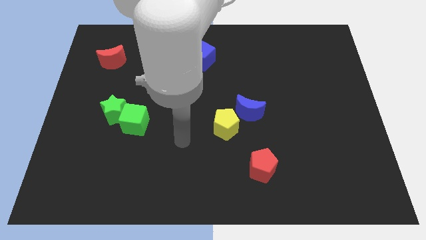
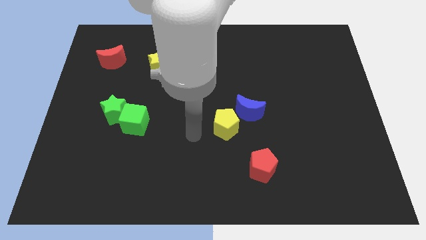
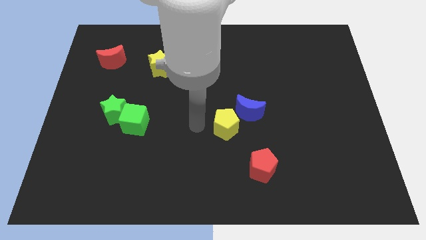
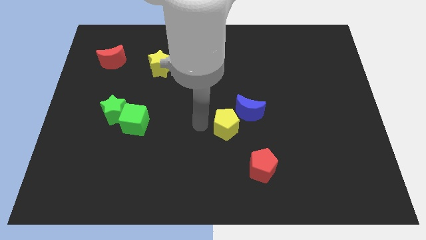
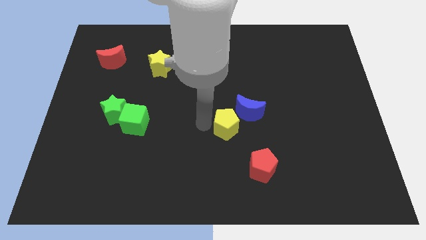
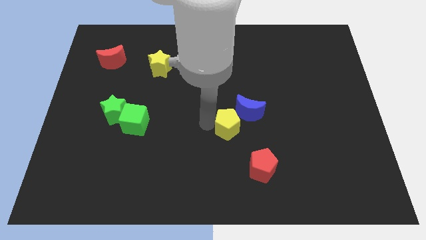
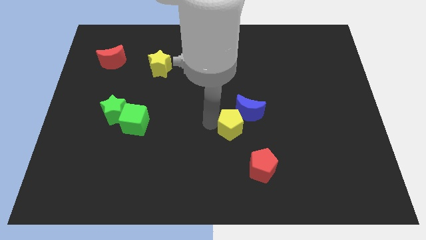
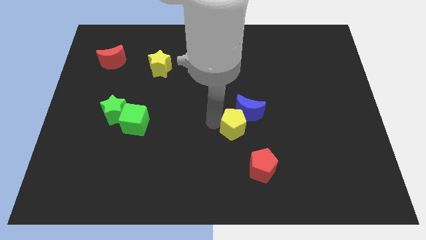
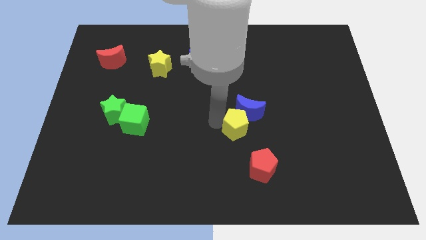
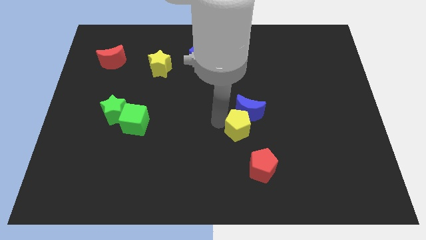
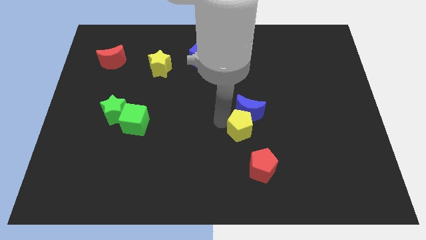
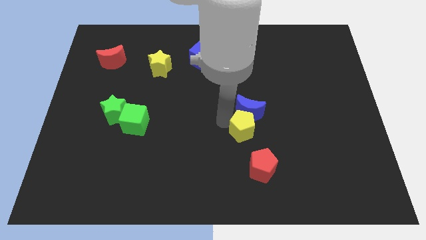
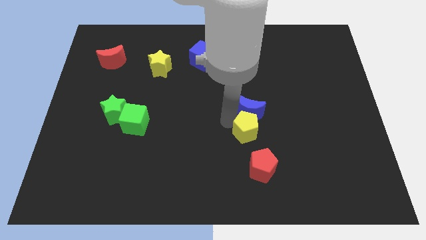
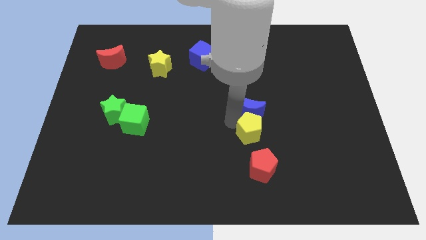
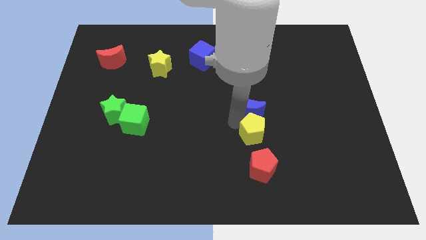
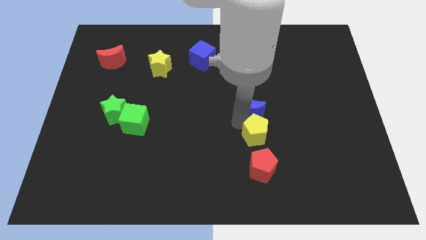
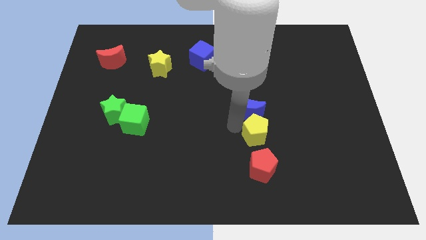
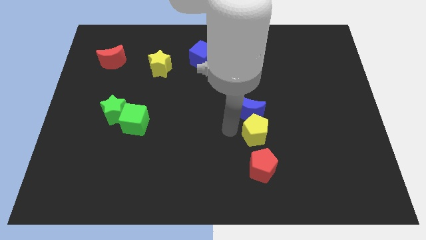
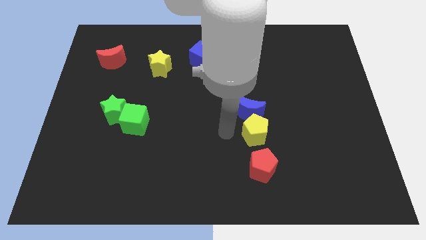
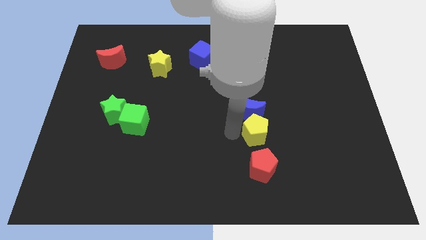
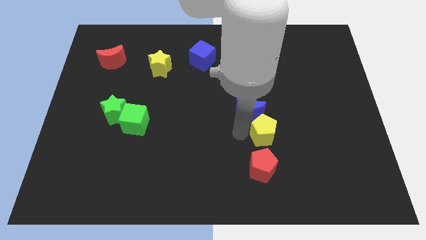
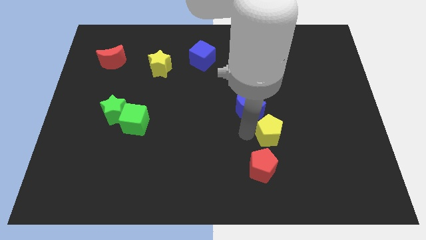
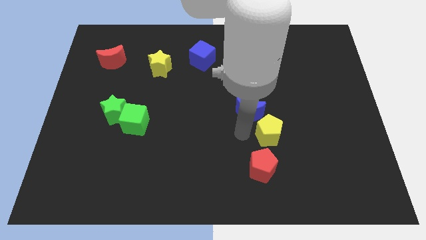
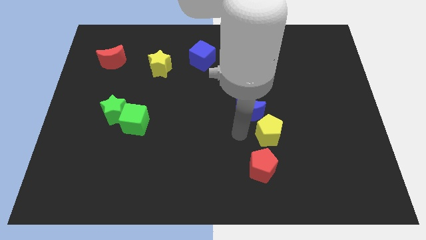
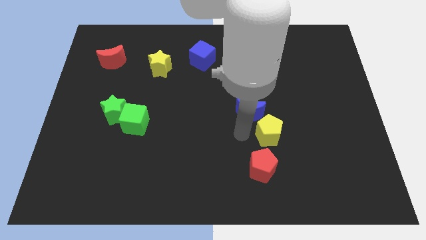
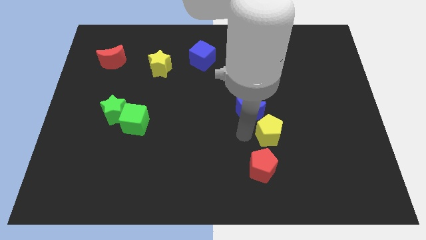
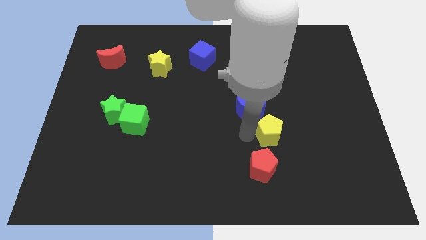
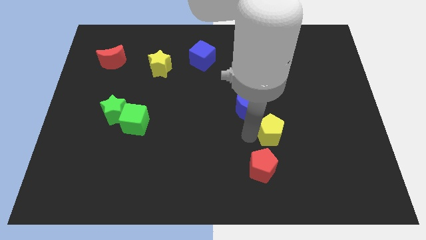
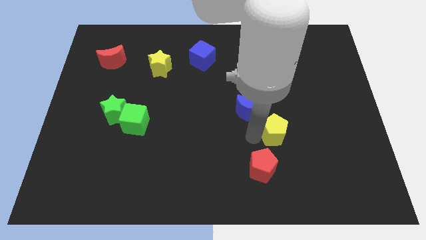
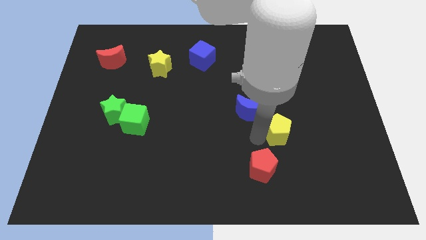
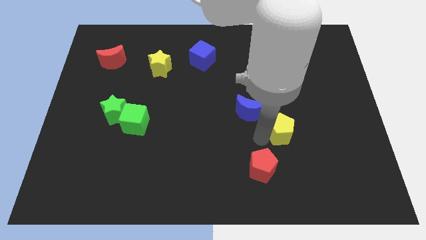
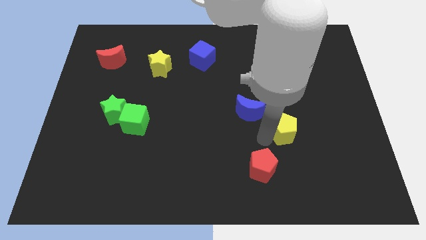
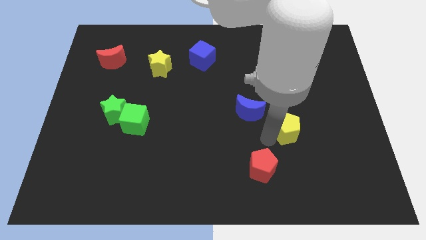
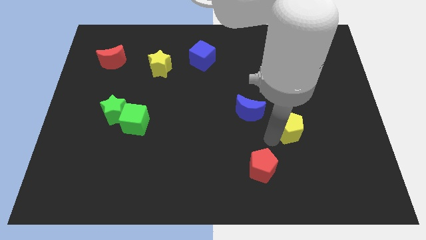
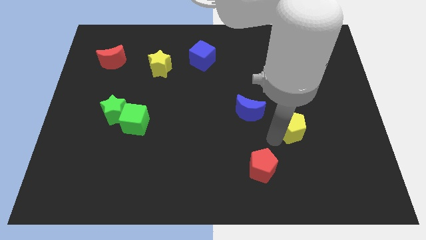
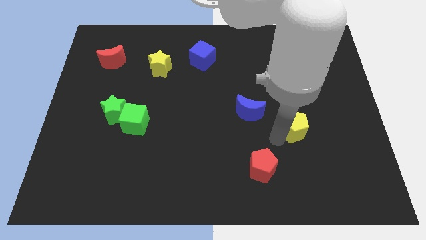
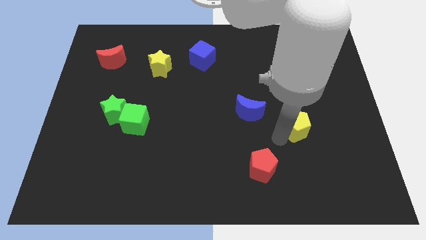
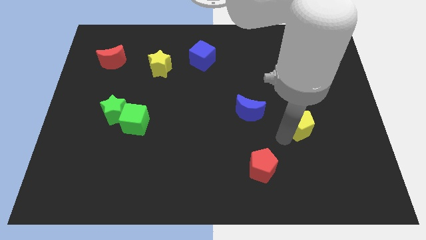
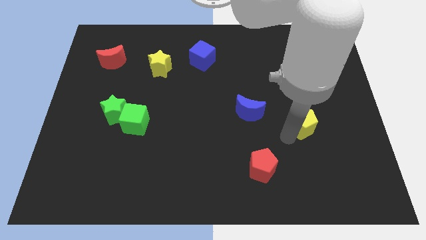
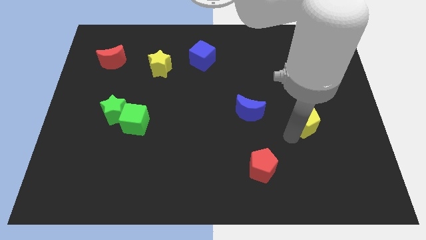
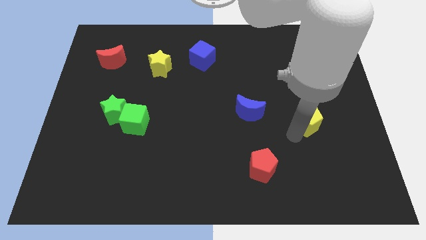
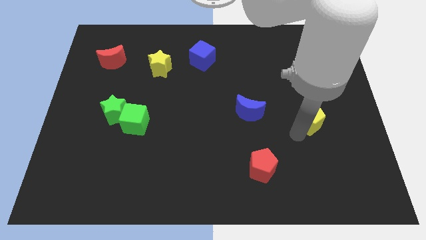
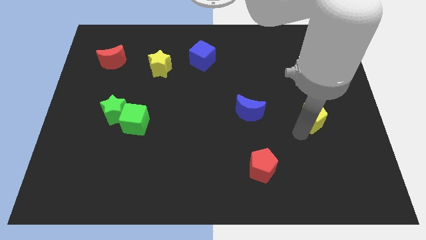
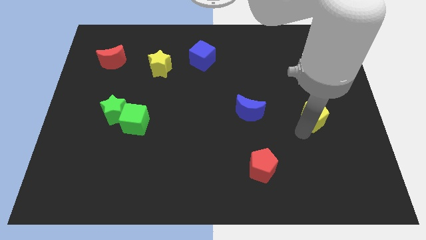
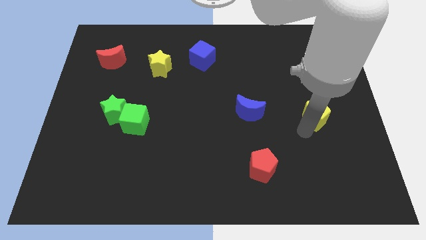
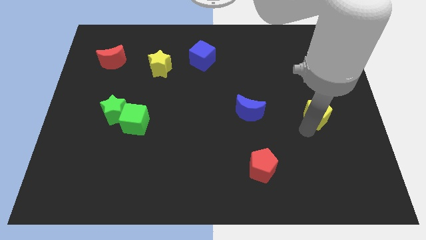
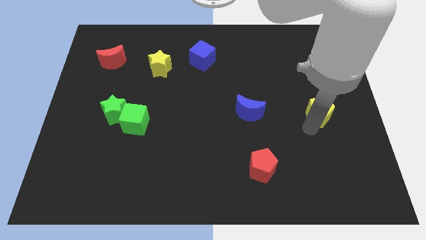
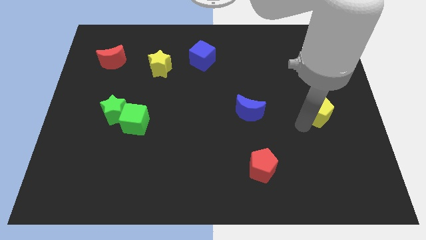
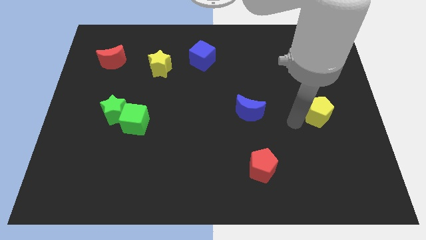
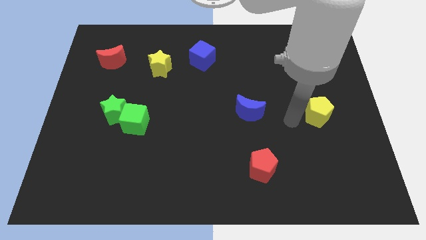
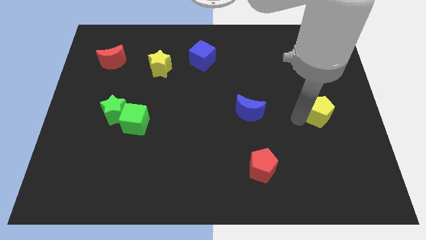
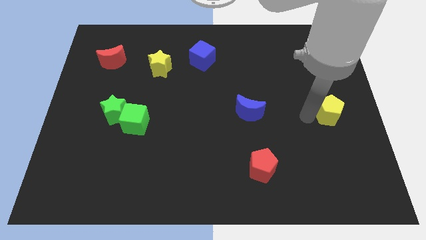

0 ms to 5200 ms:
slide the yellow pentagon to the right side

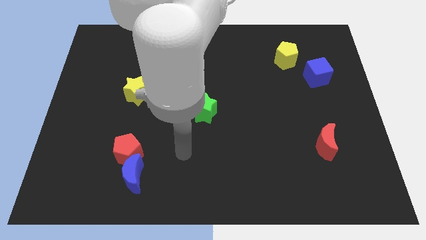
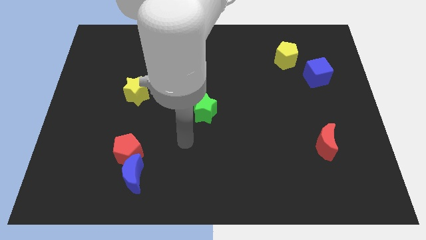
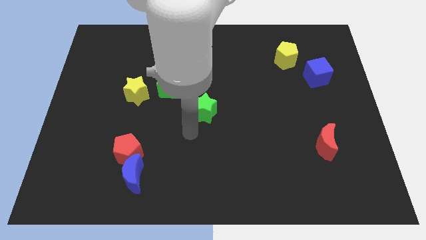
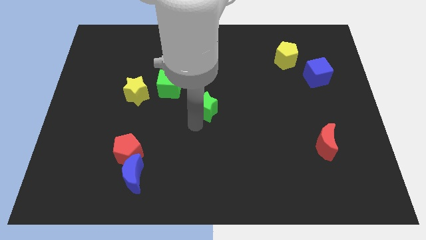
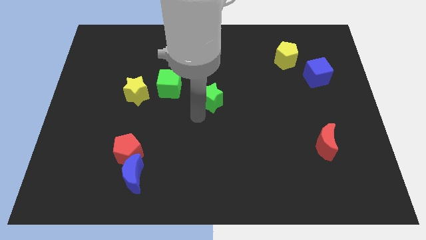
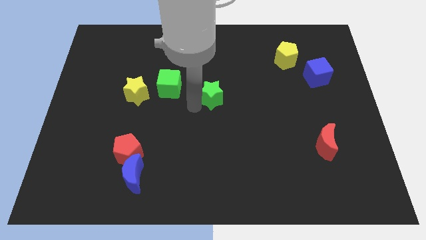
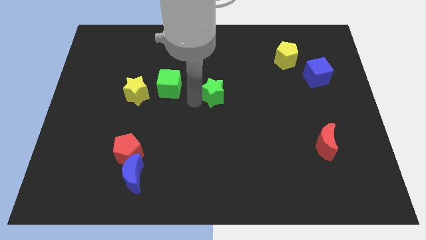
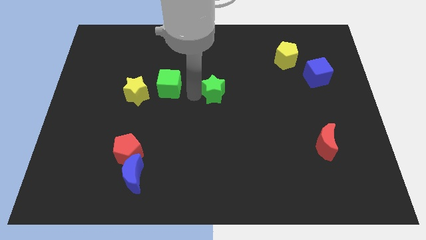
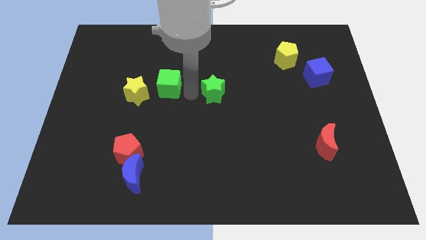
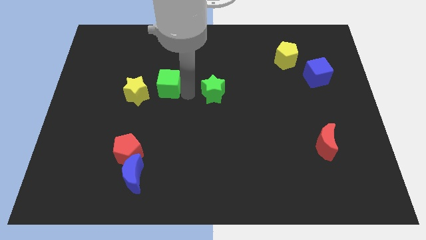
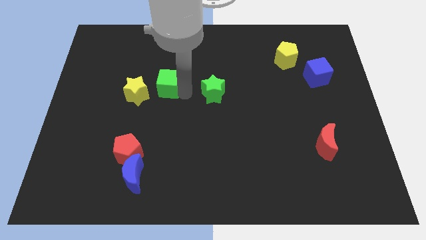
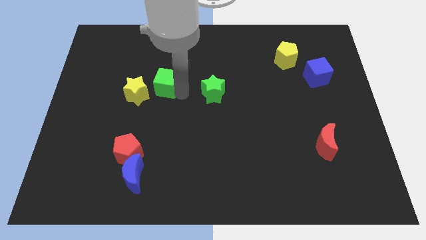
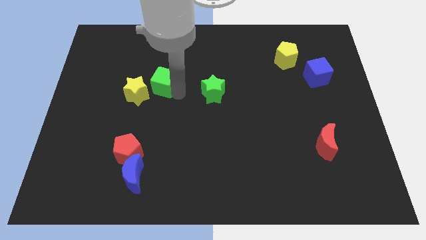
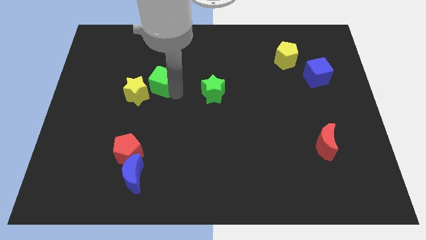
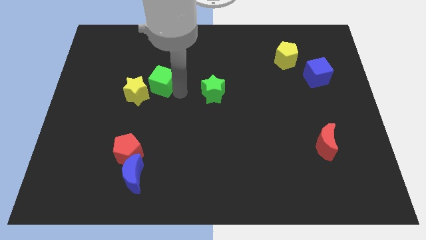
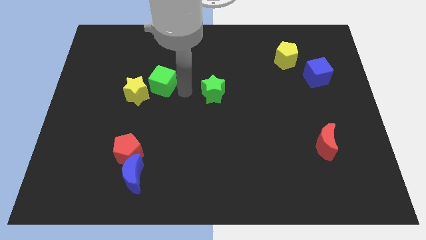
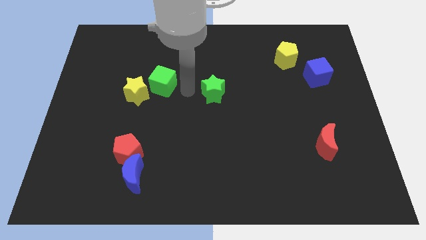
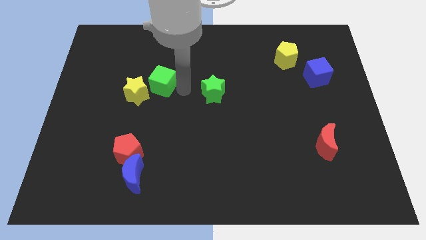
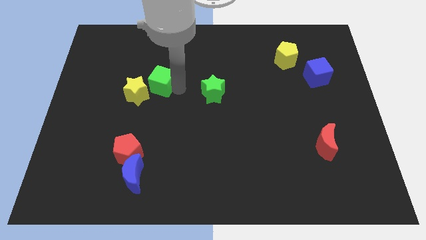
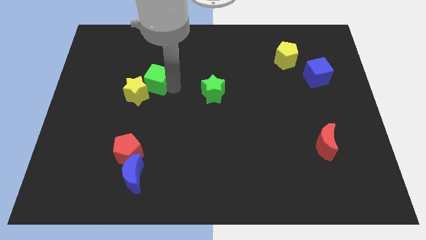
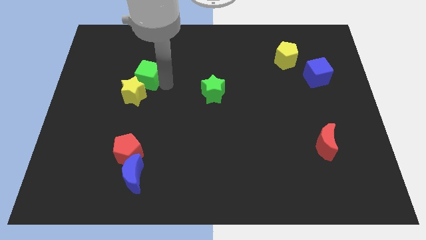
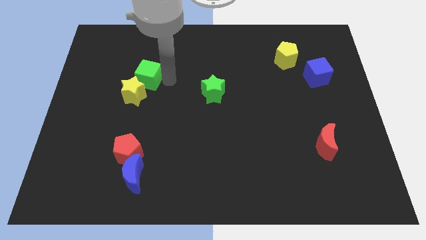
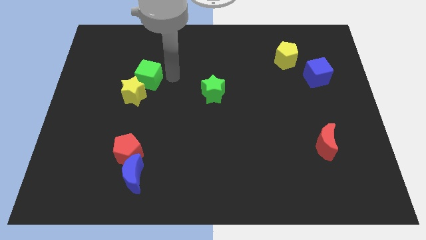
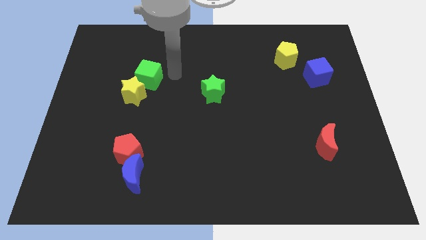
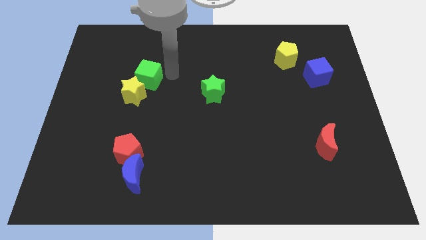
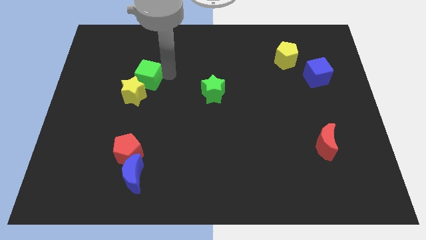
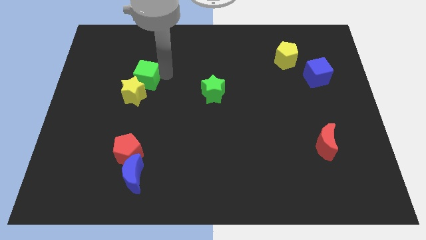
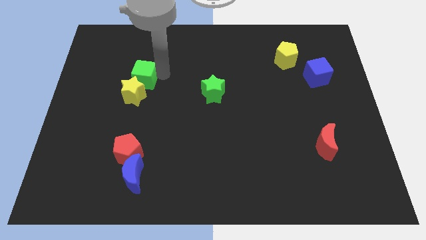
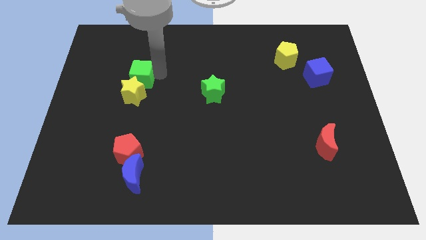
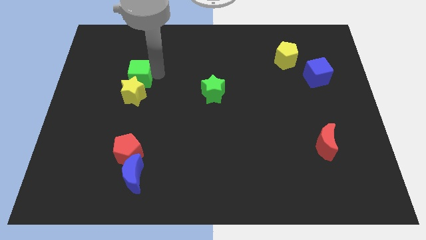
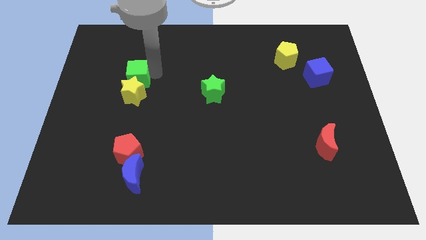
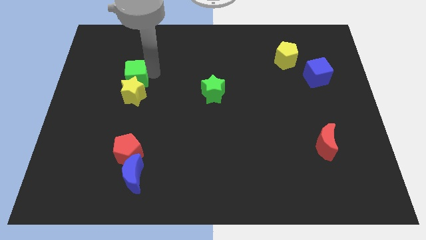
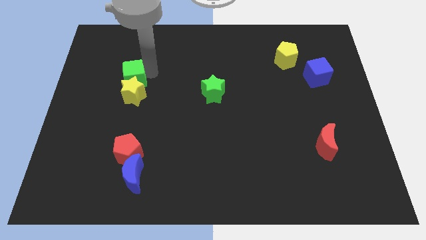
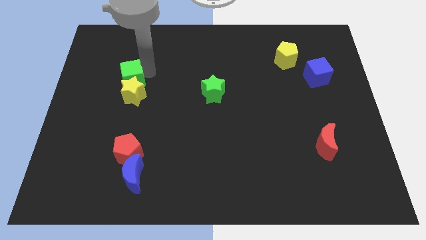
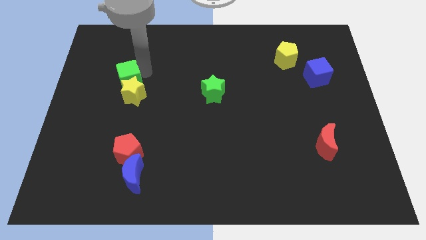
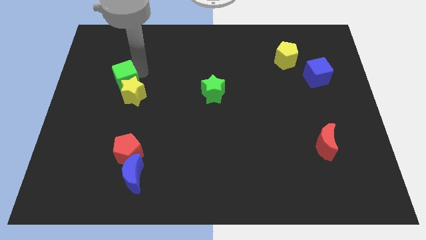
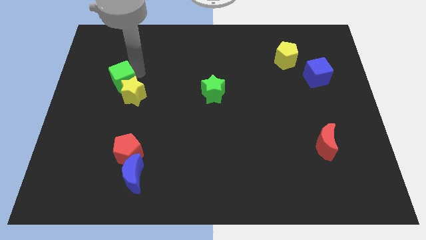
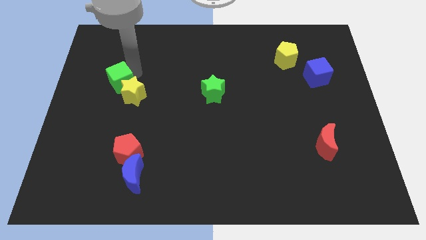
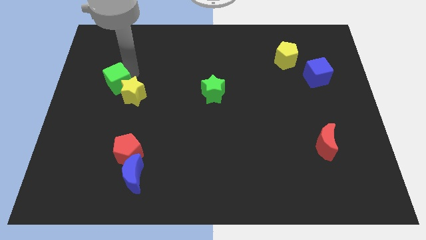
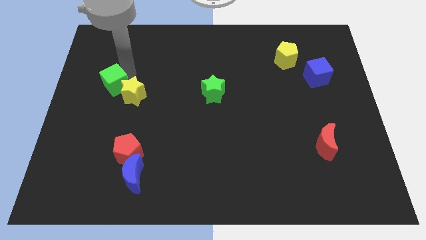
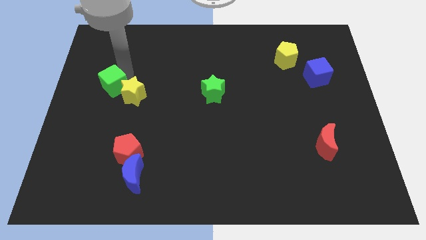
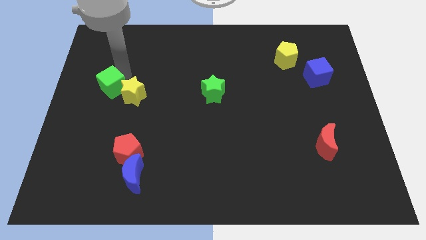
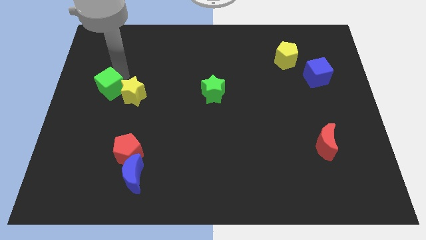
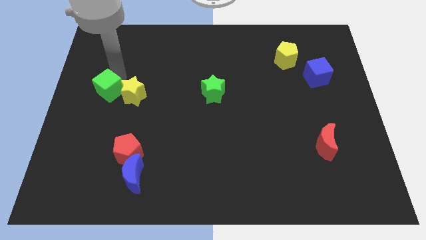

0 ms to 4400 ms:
put the green cube to the left side of the board
